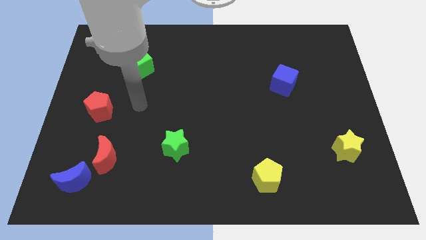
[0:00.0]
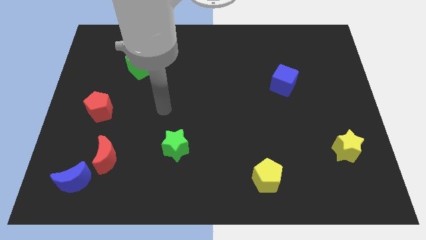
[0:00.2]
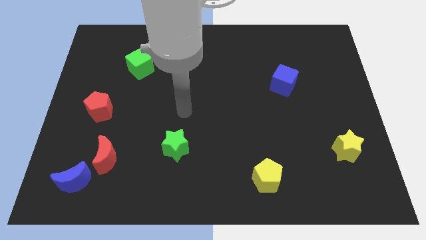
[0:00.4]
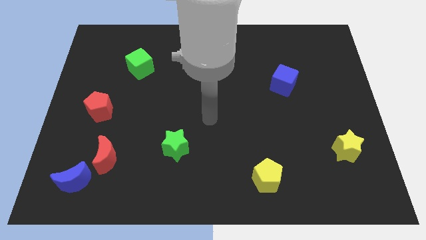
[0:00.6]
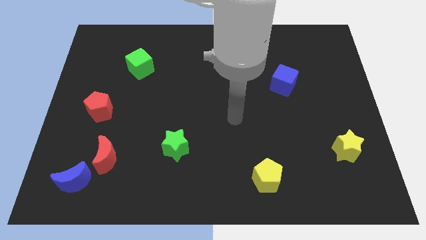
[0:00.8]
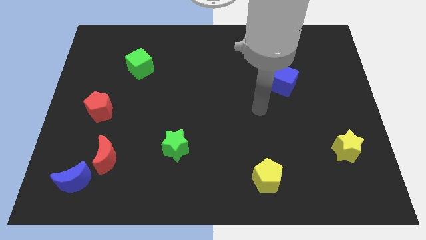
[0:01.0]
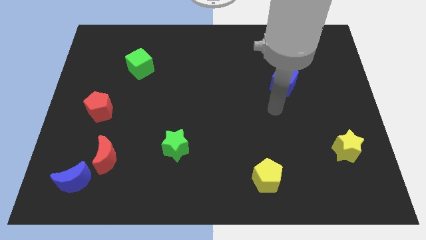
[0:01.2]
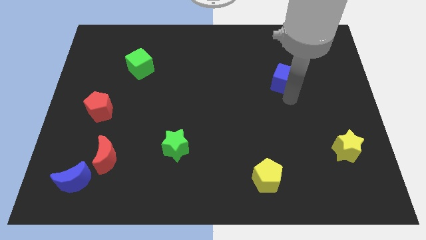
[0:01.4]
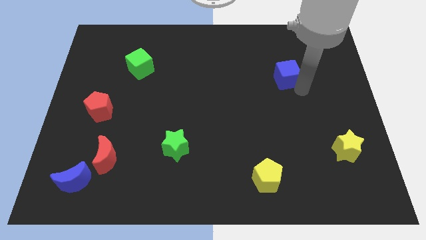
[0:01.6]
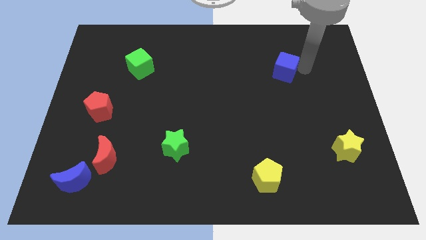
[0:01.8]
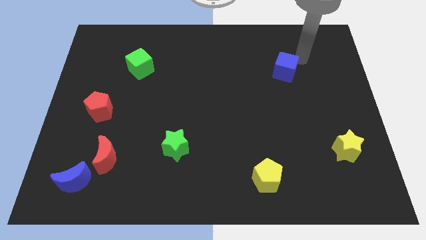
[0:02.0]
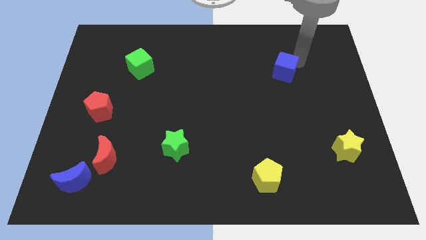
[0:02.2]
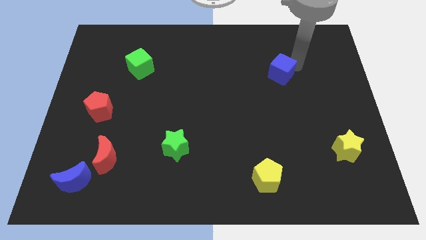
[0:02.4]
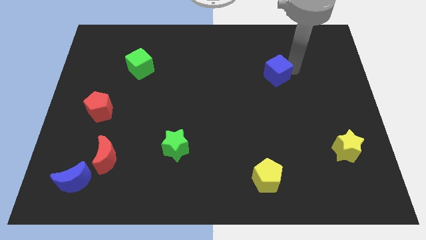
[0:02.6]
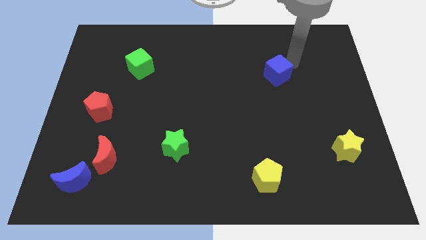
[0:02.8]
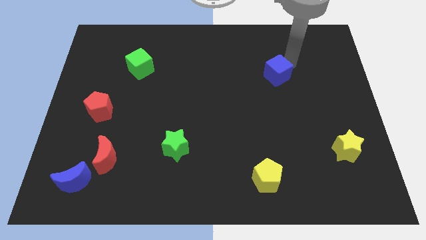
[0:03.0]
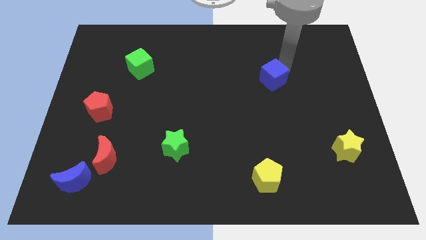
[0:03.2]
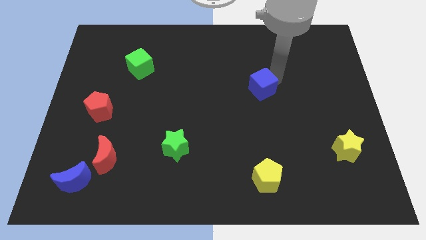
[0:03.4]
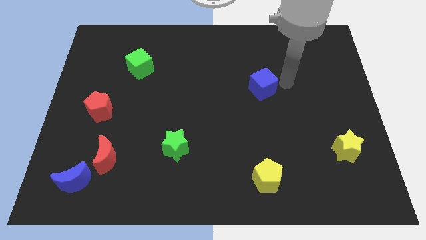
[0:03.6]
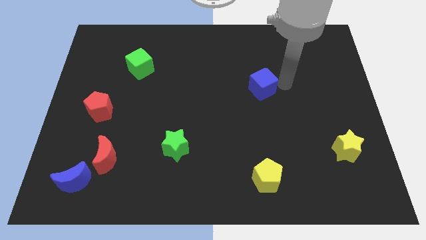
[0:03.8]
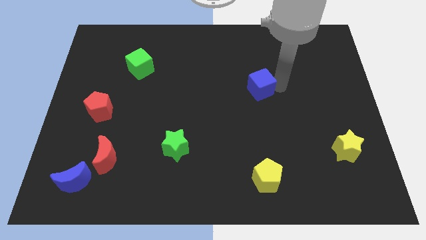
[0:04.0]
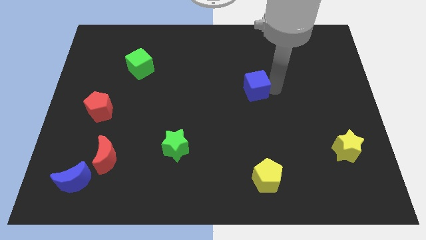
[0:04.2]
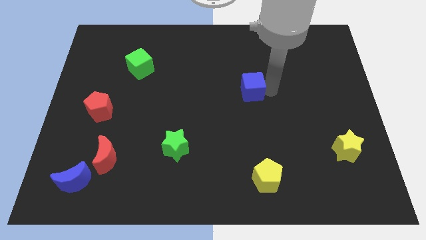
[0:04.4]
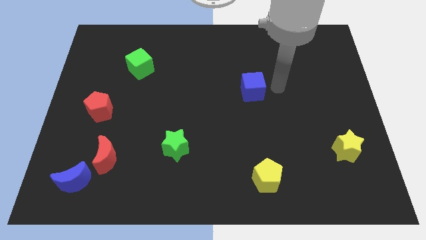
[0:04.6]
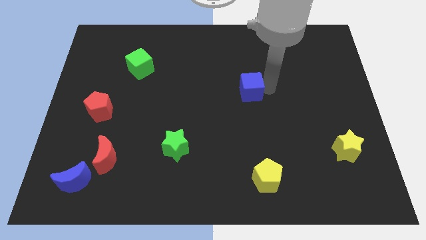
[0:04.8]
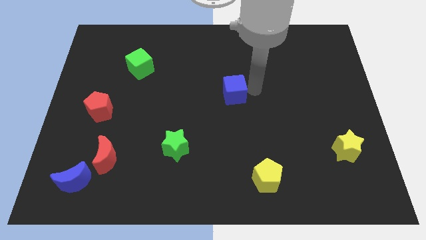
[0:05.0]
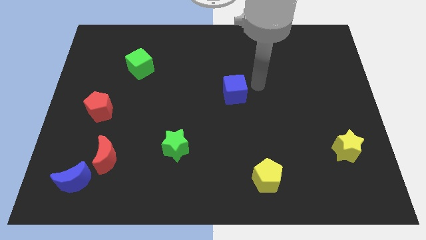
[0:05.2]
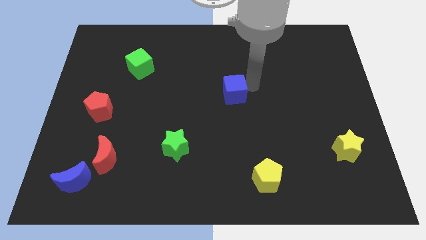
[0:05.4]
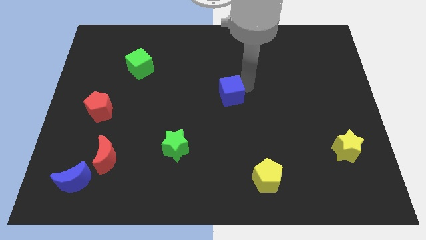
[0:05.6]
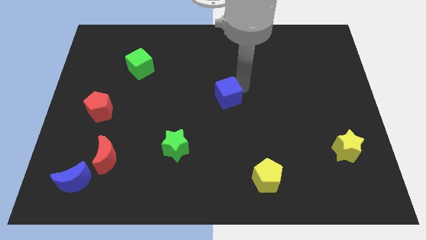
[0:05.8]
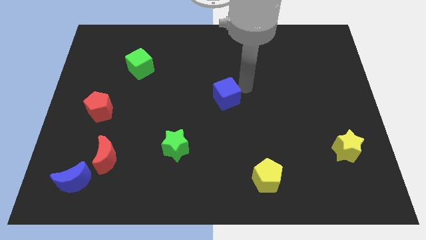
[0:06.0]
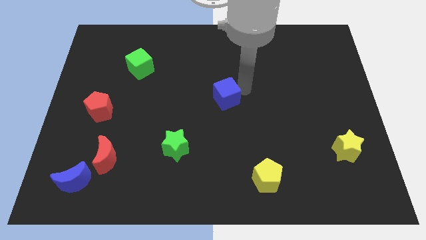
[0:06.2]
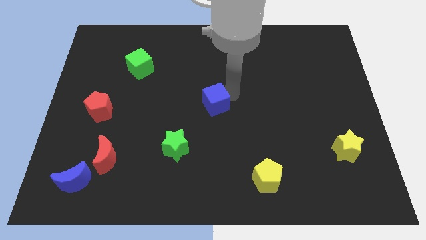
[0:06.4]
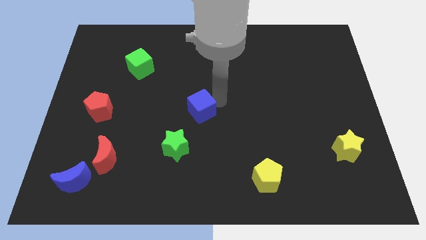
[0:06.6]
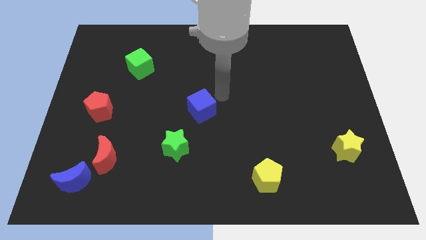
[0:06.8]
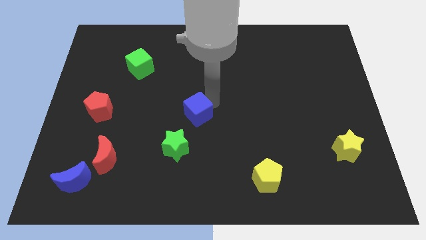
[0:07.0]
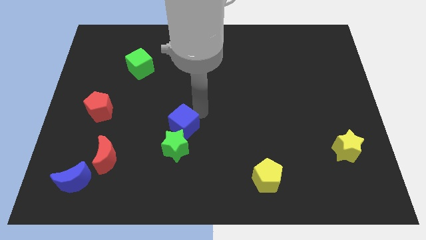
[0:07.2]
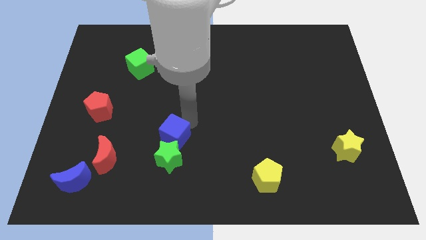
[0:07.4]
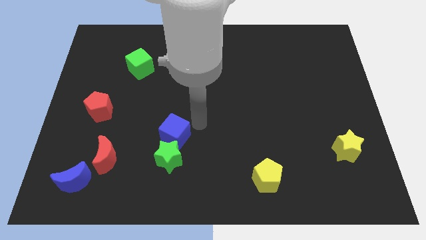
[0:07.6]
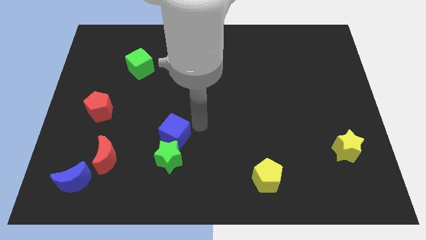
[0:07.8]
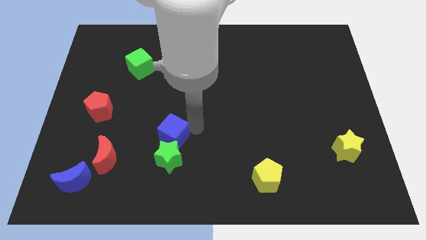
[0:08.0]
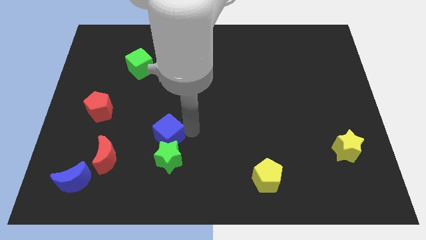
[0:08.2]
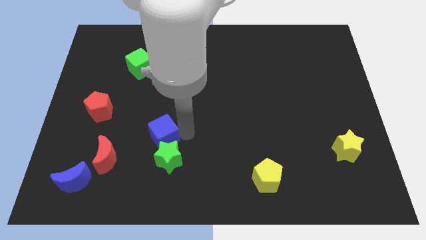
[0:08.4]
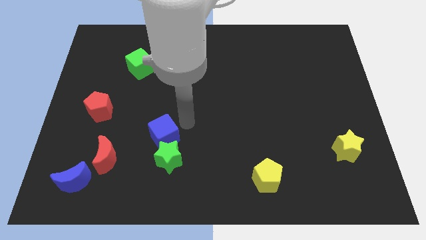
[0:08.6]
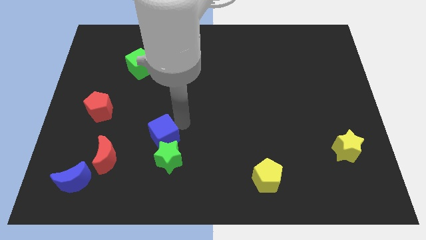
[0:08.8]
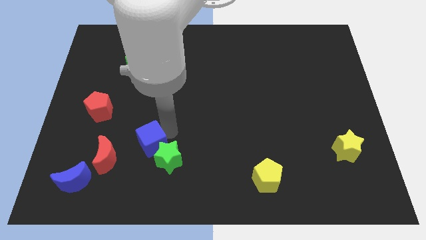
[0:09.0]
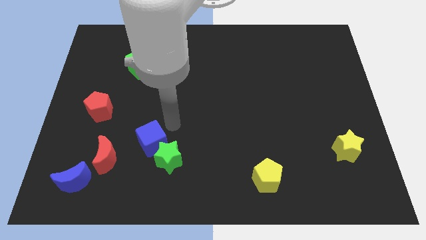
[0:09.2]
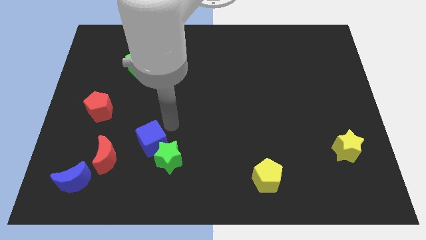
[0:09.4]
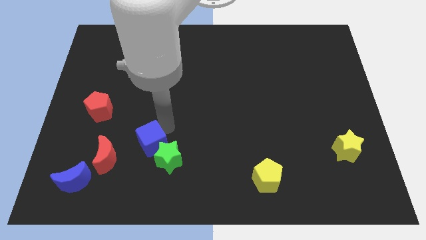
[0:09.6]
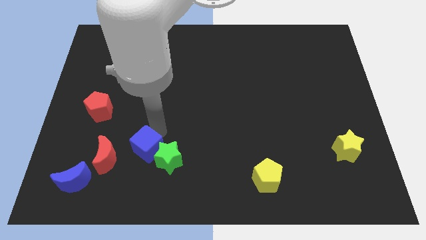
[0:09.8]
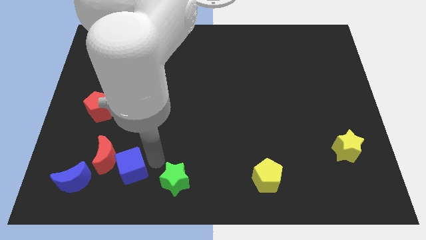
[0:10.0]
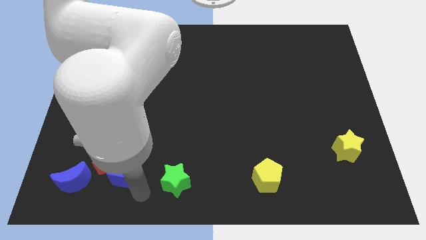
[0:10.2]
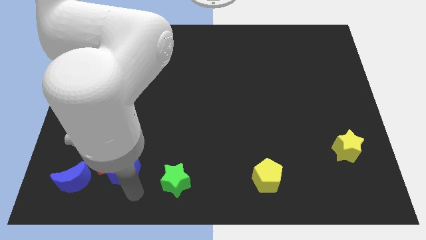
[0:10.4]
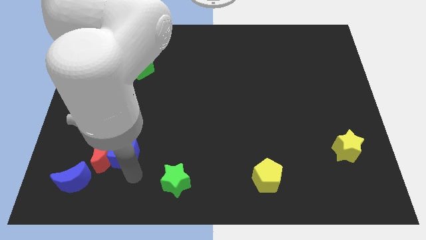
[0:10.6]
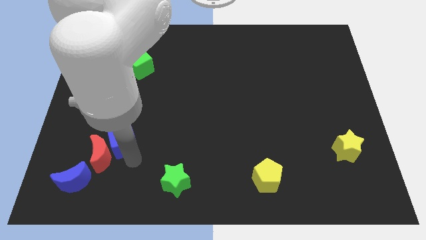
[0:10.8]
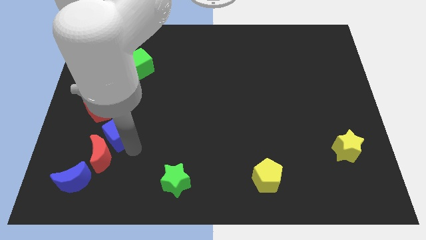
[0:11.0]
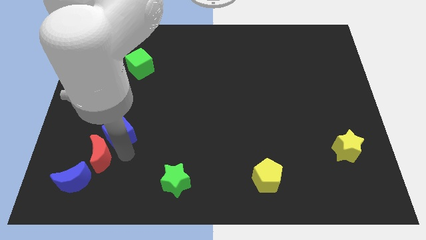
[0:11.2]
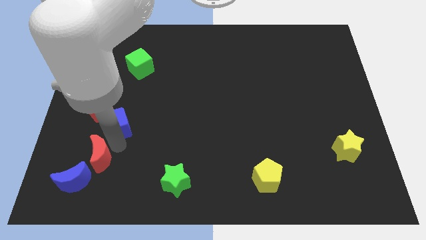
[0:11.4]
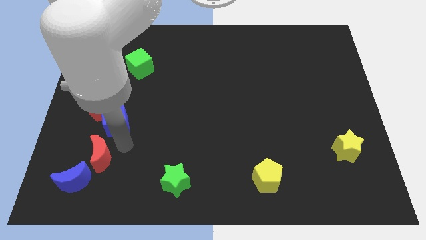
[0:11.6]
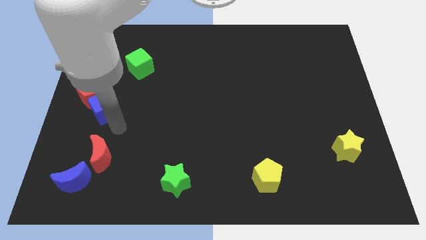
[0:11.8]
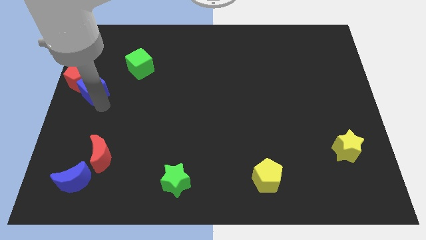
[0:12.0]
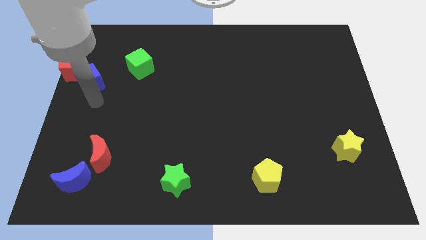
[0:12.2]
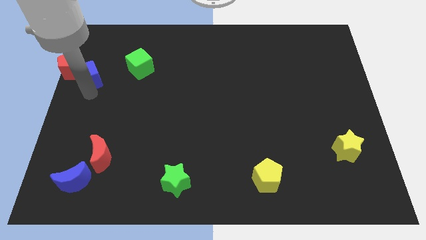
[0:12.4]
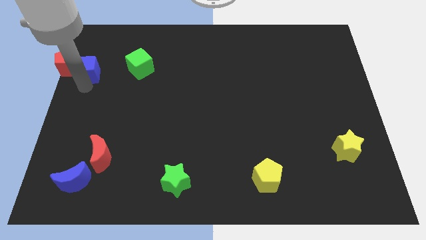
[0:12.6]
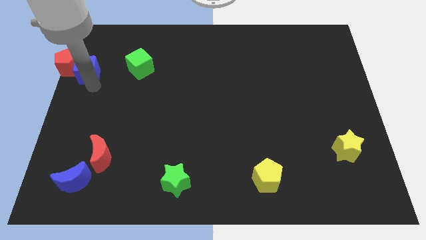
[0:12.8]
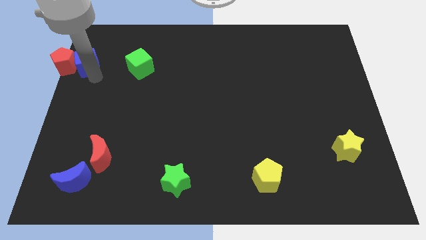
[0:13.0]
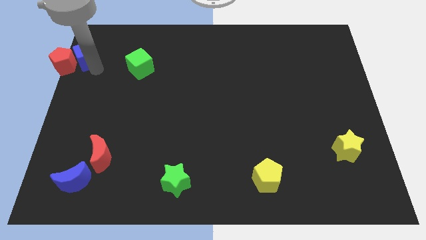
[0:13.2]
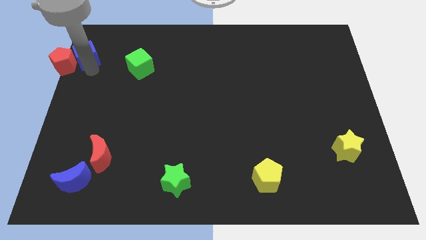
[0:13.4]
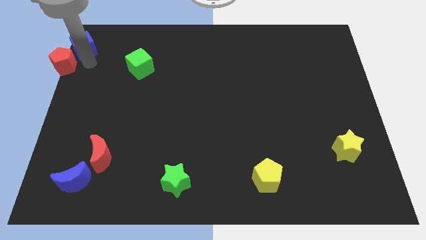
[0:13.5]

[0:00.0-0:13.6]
push the blue cube to the top left
